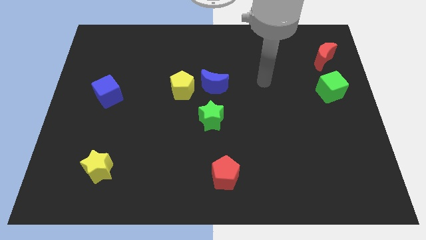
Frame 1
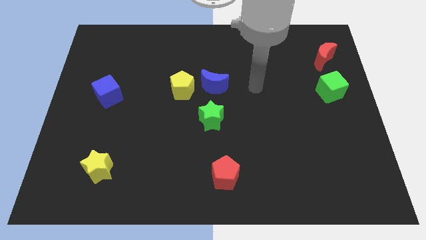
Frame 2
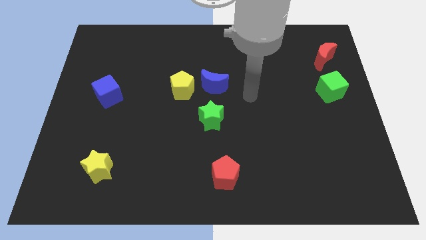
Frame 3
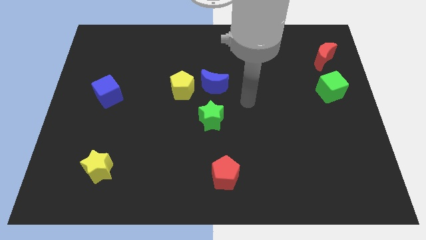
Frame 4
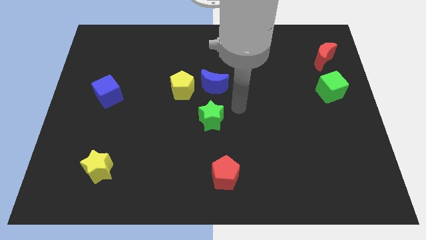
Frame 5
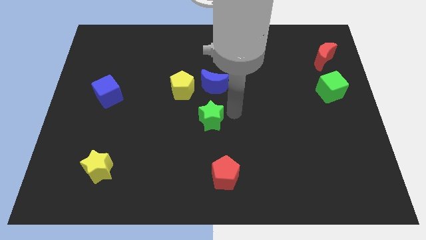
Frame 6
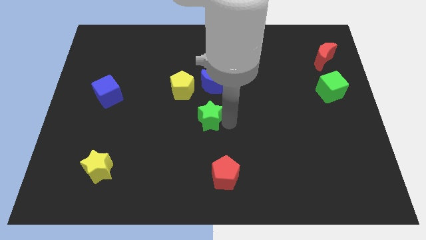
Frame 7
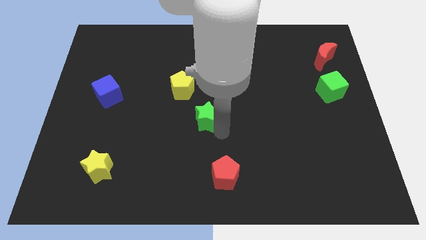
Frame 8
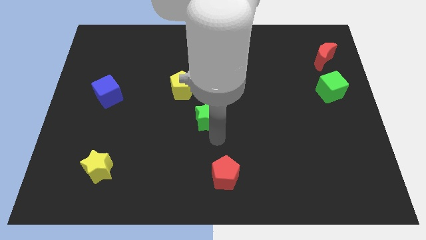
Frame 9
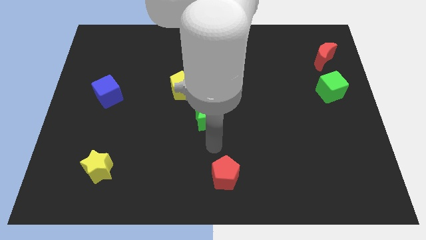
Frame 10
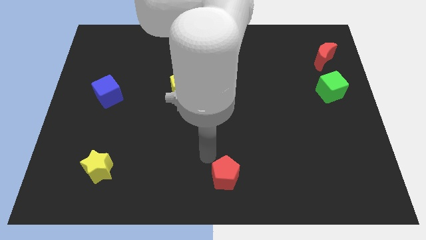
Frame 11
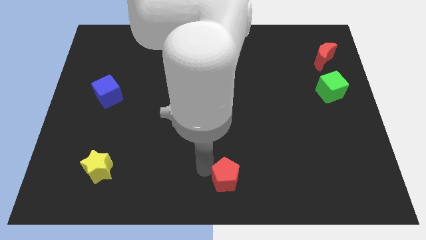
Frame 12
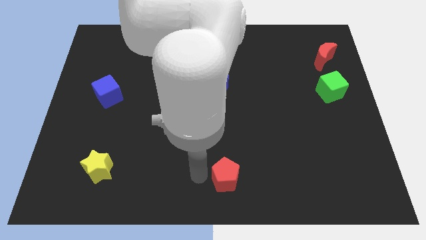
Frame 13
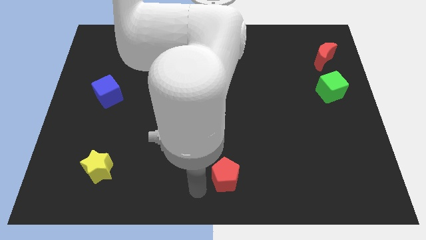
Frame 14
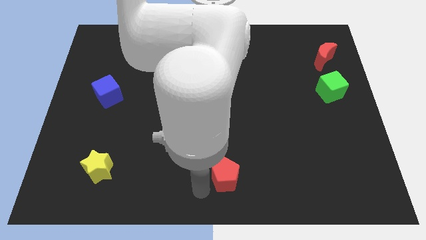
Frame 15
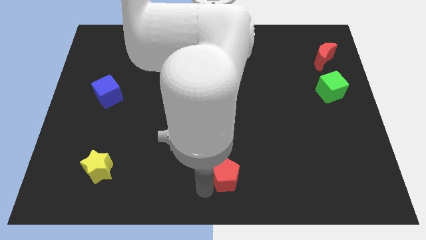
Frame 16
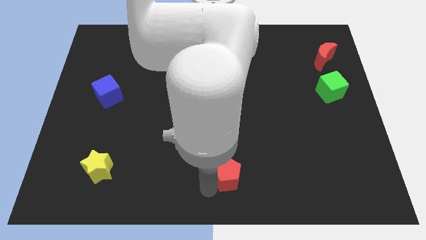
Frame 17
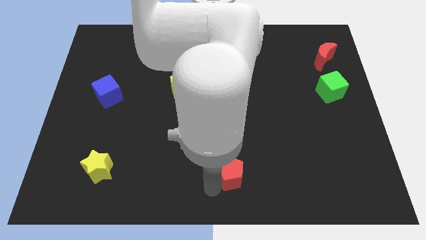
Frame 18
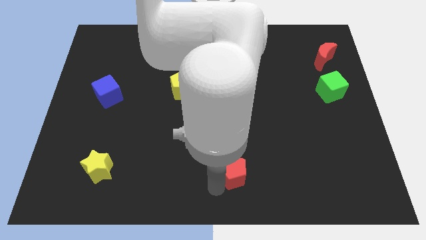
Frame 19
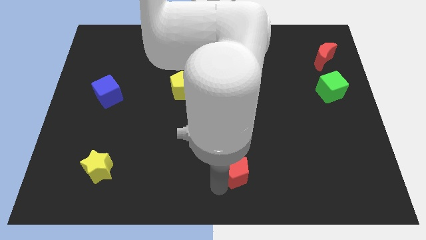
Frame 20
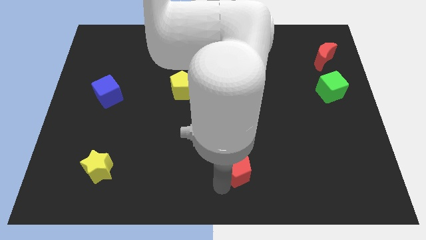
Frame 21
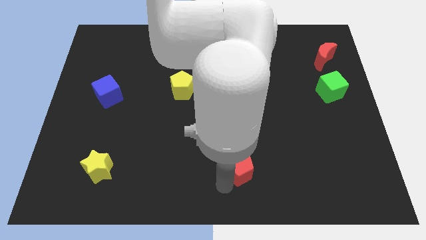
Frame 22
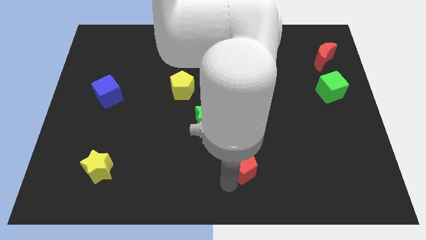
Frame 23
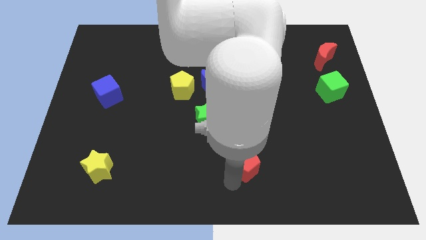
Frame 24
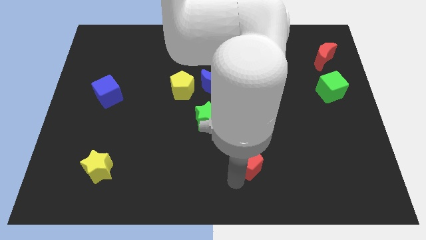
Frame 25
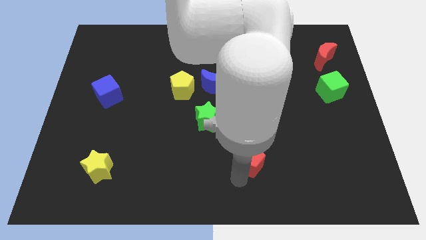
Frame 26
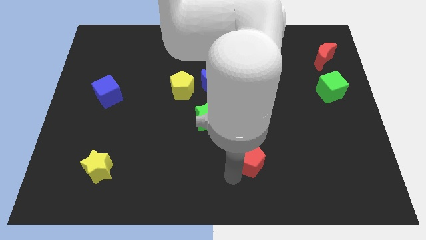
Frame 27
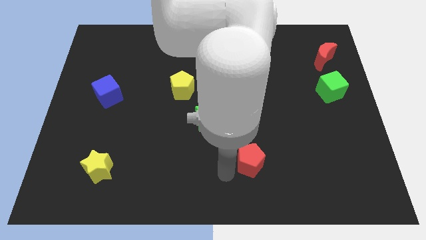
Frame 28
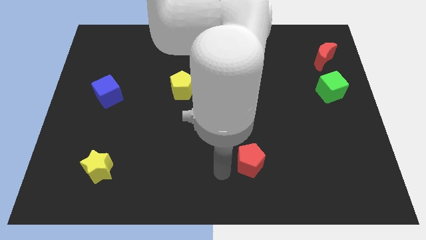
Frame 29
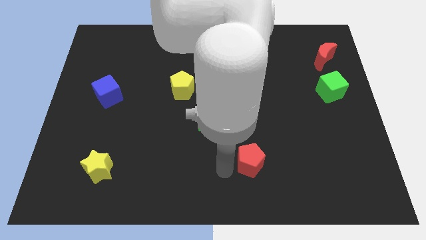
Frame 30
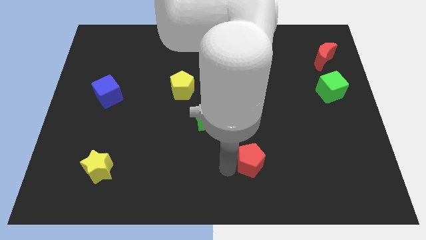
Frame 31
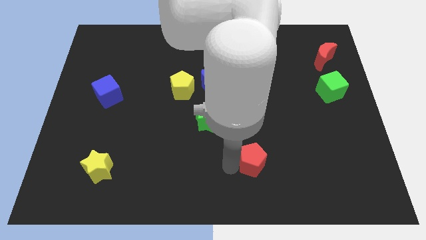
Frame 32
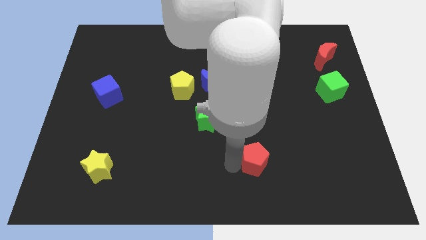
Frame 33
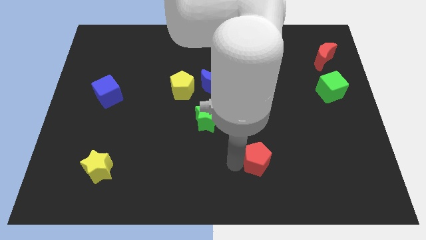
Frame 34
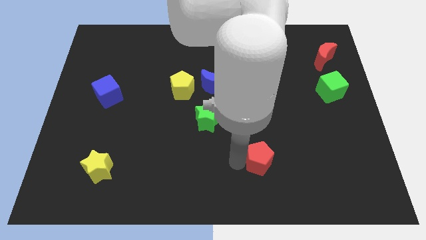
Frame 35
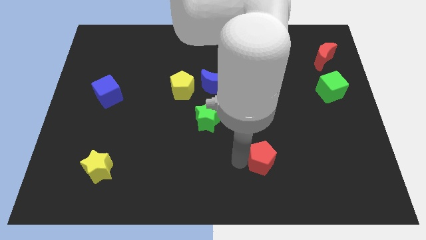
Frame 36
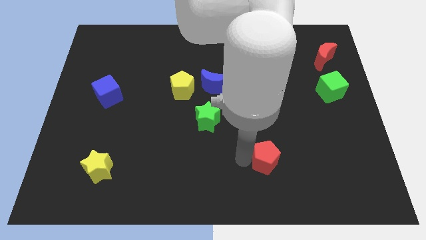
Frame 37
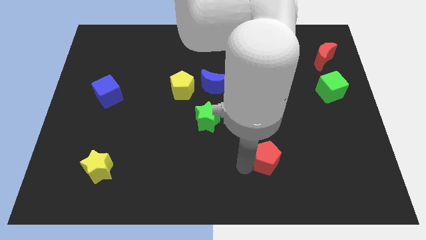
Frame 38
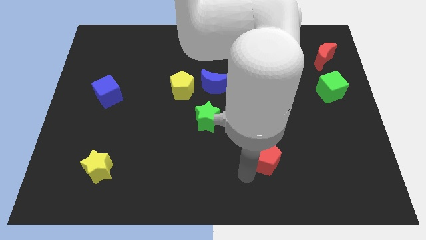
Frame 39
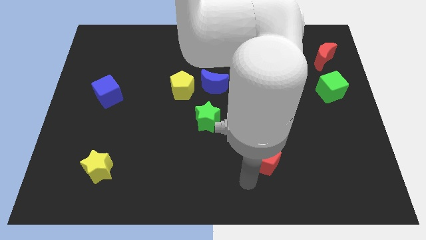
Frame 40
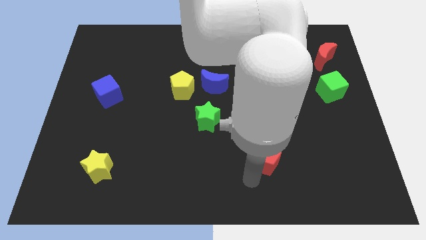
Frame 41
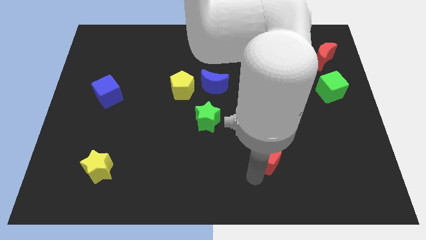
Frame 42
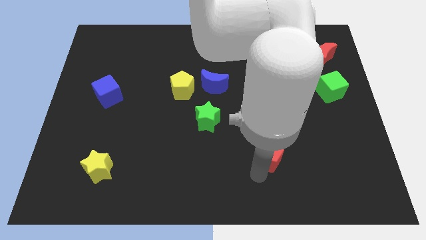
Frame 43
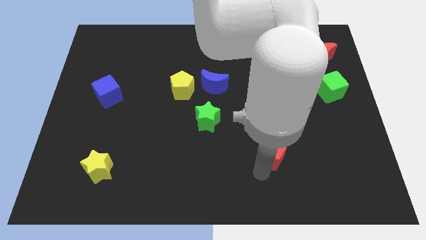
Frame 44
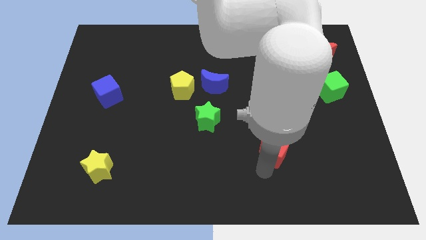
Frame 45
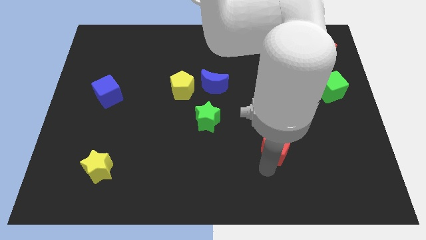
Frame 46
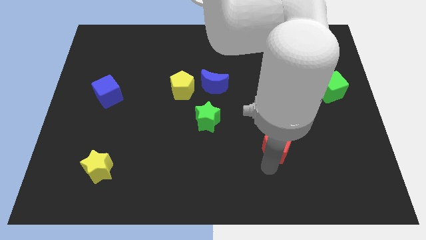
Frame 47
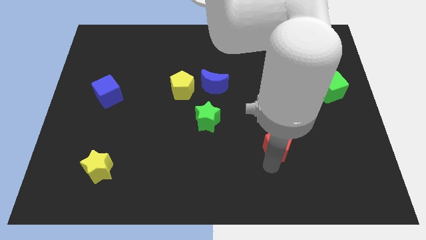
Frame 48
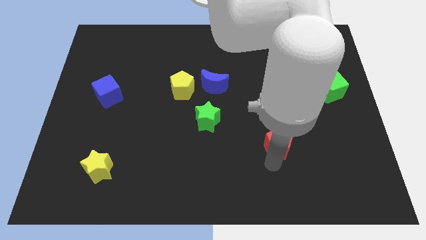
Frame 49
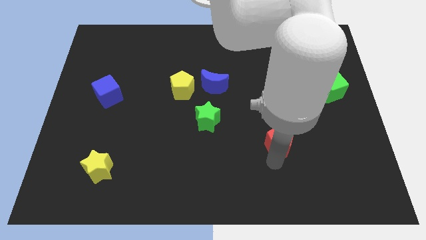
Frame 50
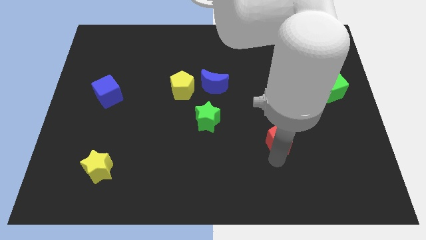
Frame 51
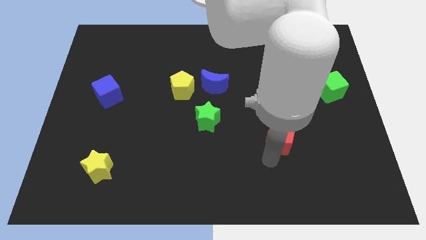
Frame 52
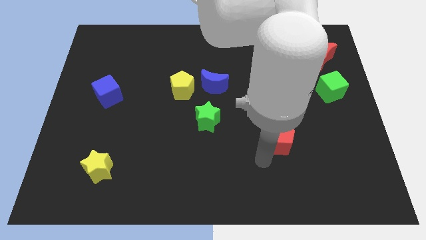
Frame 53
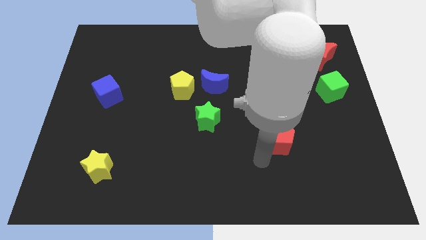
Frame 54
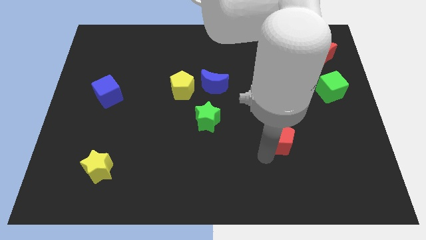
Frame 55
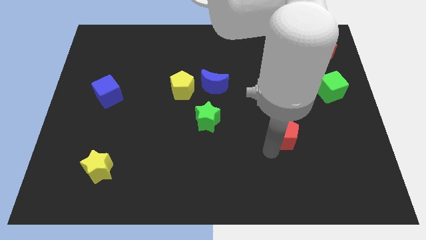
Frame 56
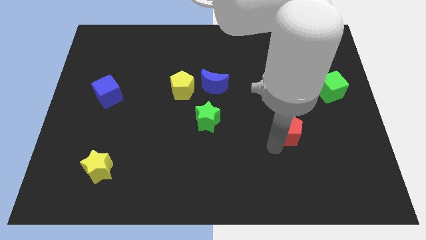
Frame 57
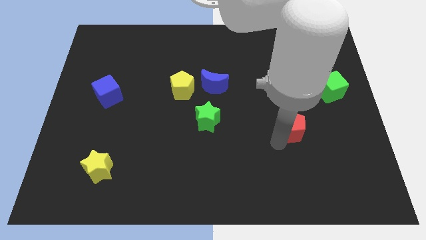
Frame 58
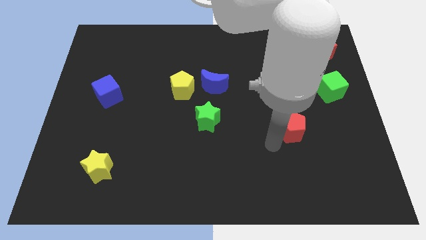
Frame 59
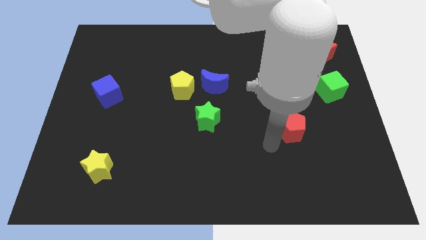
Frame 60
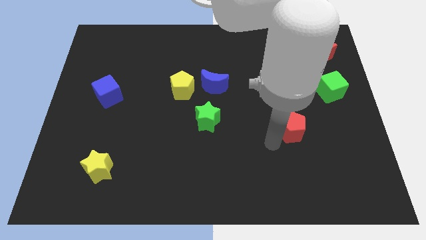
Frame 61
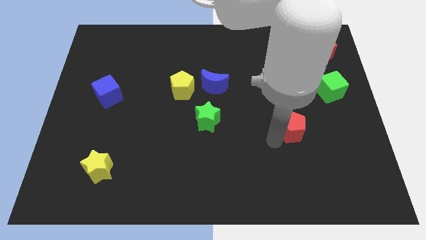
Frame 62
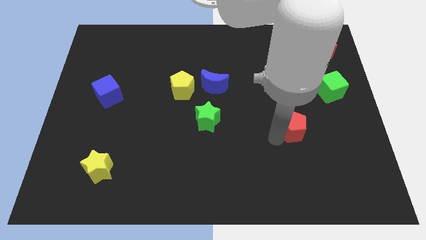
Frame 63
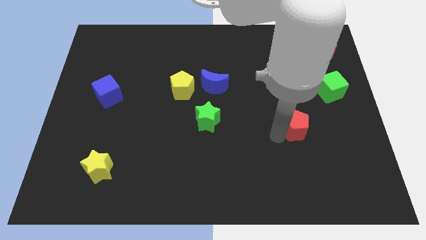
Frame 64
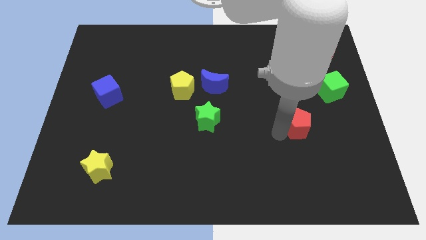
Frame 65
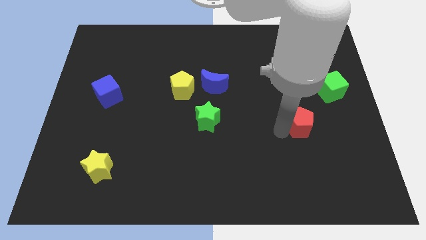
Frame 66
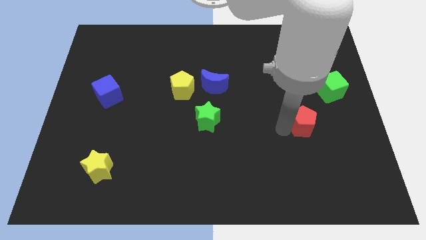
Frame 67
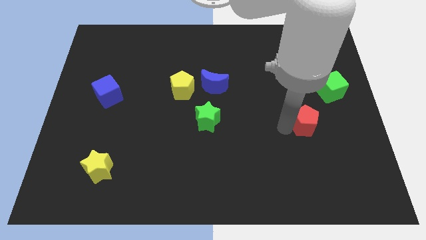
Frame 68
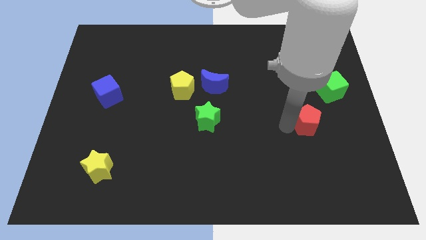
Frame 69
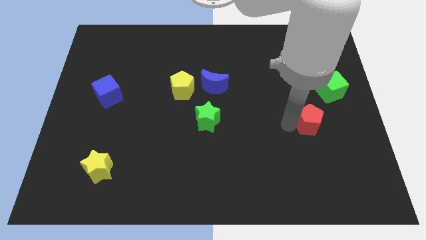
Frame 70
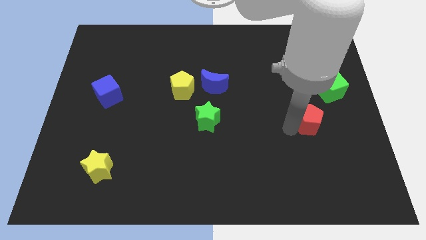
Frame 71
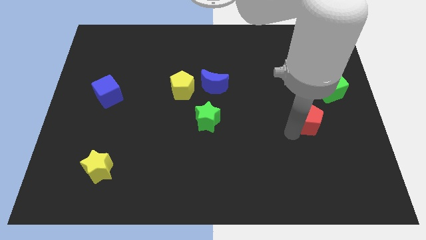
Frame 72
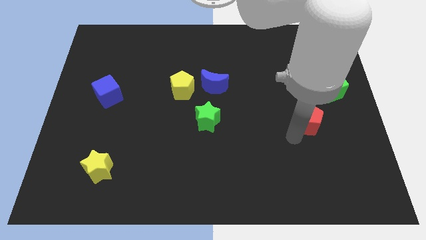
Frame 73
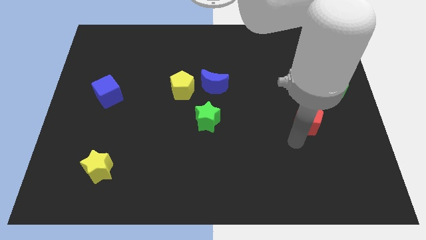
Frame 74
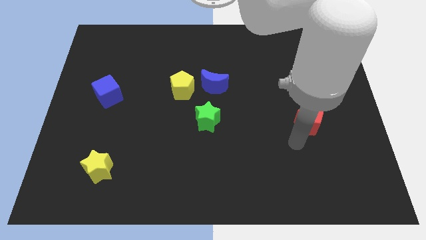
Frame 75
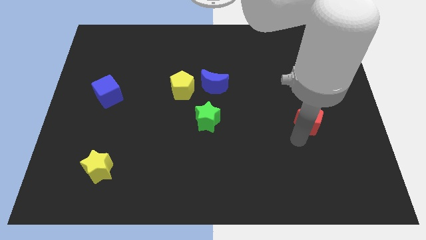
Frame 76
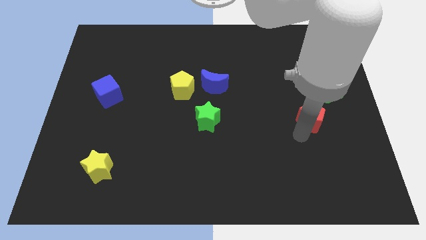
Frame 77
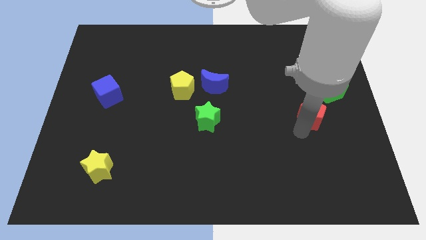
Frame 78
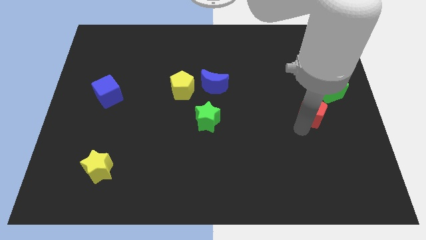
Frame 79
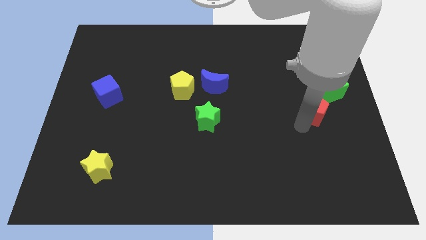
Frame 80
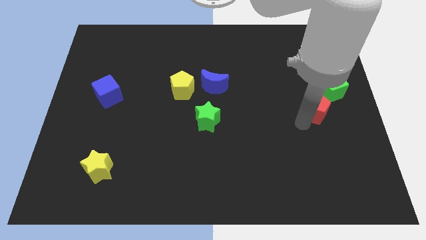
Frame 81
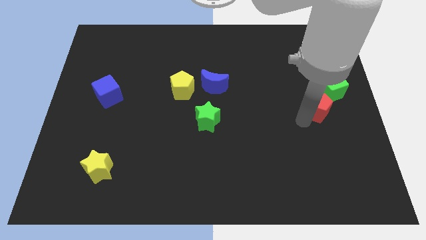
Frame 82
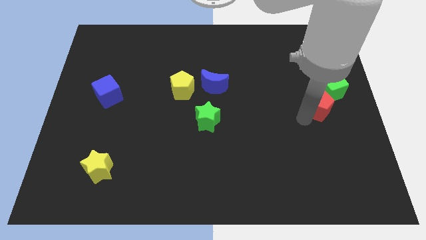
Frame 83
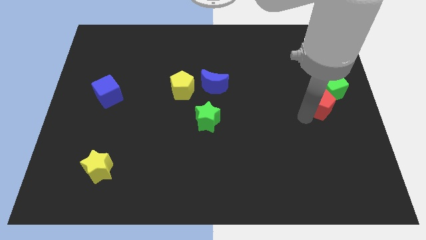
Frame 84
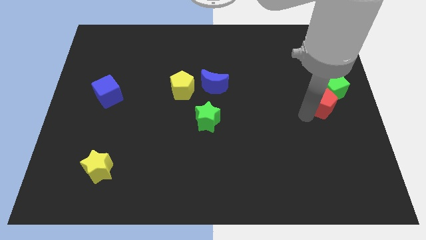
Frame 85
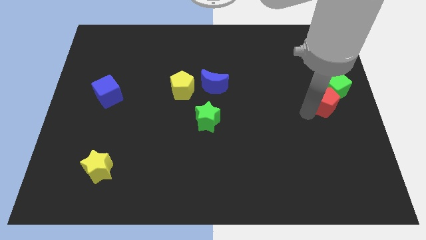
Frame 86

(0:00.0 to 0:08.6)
push the red pentagon below the red moon
